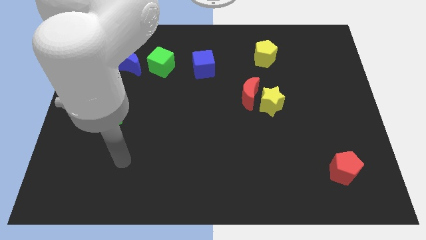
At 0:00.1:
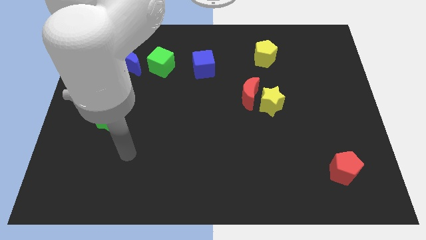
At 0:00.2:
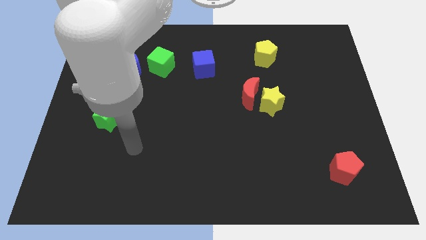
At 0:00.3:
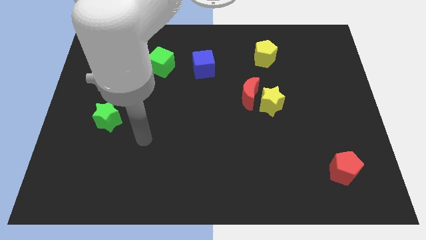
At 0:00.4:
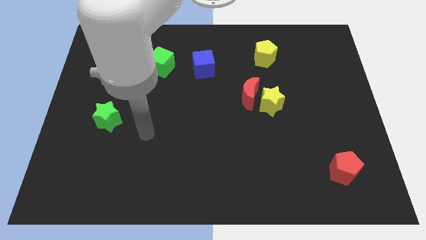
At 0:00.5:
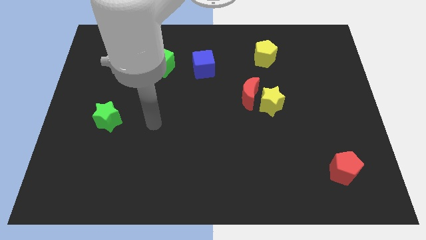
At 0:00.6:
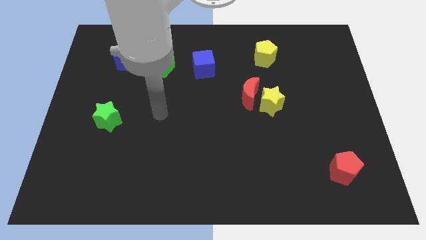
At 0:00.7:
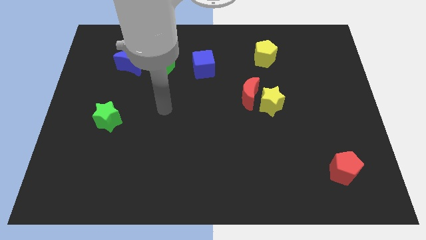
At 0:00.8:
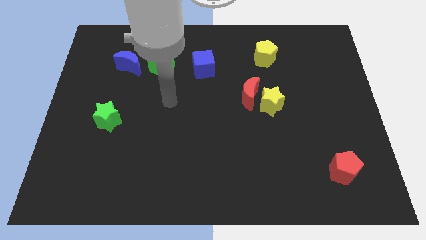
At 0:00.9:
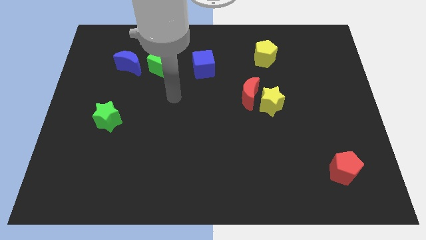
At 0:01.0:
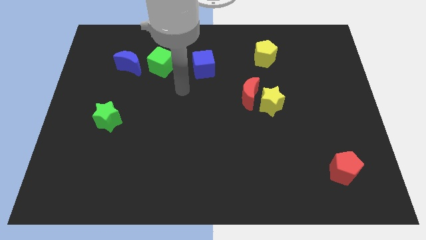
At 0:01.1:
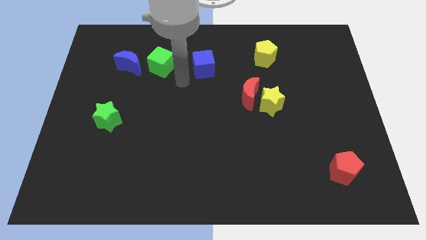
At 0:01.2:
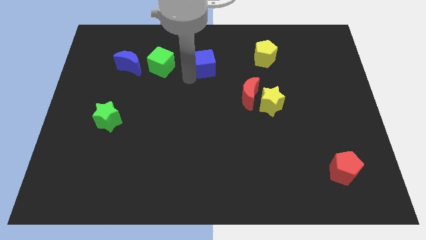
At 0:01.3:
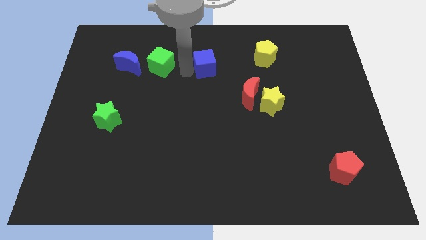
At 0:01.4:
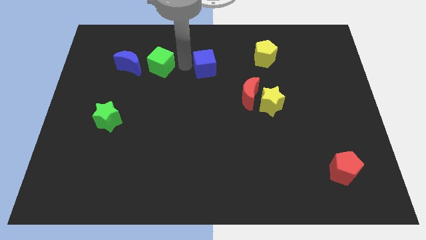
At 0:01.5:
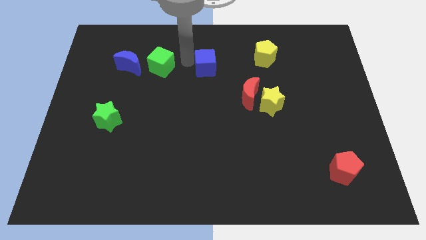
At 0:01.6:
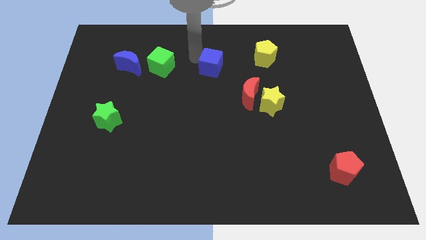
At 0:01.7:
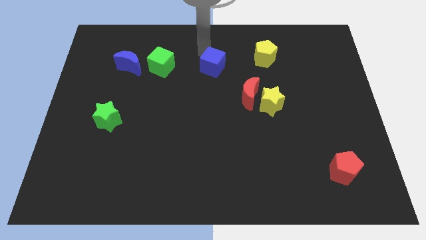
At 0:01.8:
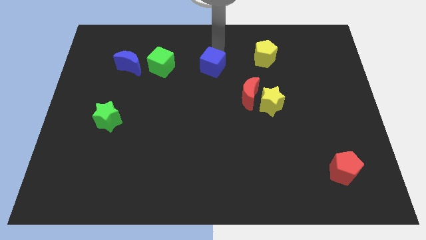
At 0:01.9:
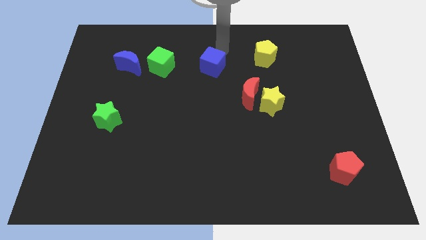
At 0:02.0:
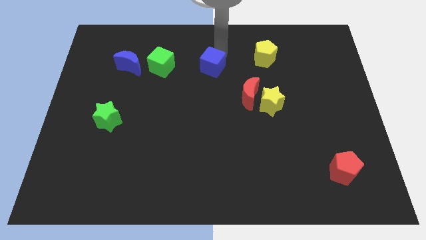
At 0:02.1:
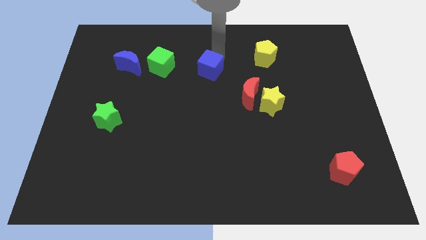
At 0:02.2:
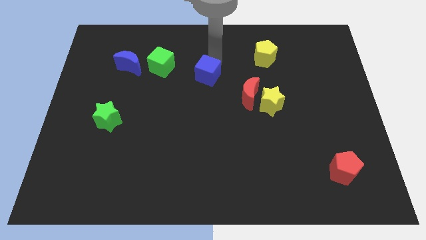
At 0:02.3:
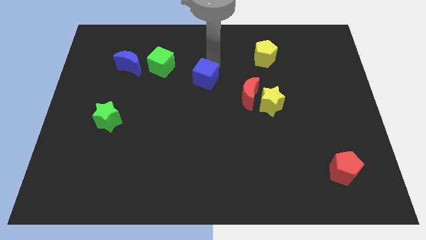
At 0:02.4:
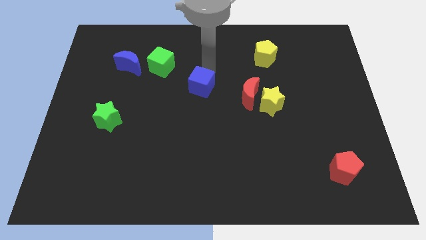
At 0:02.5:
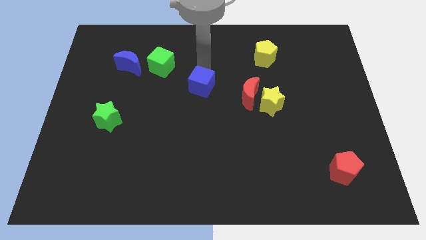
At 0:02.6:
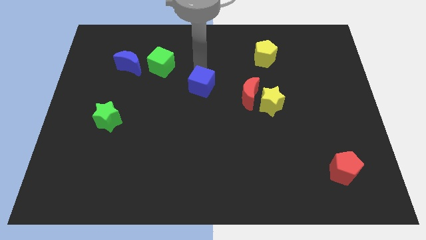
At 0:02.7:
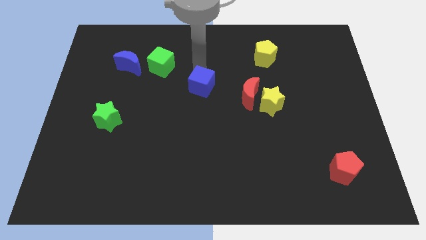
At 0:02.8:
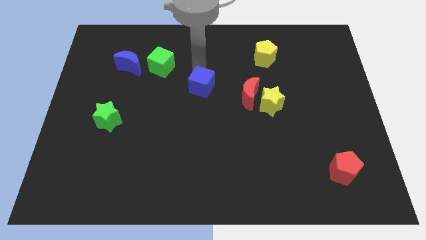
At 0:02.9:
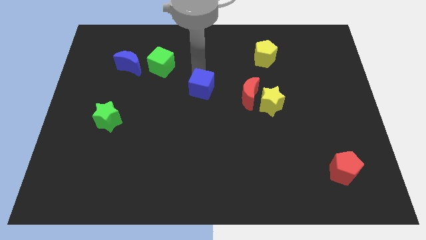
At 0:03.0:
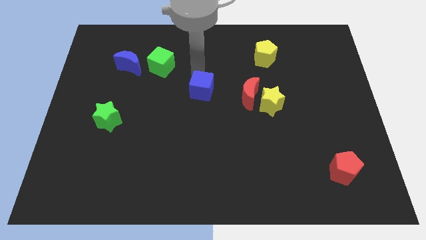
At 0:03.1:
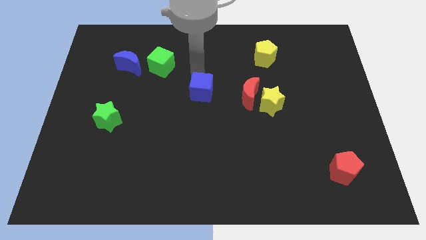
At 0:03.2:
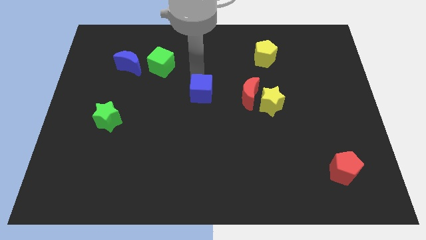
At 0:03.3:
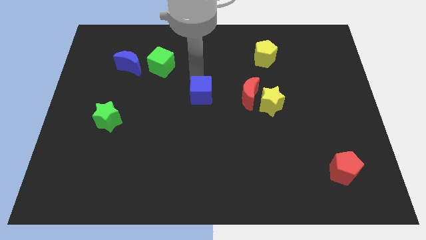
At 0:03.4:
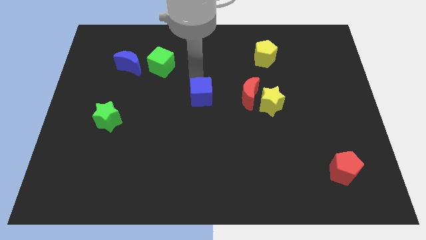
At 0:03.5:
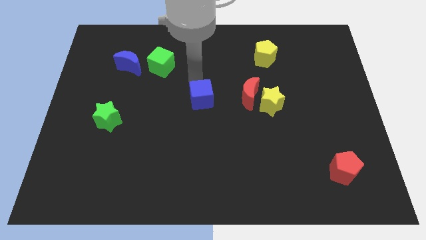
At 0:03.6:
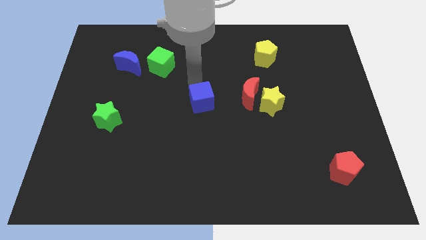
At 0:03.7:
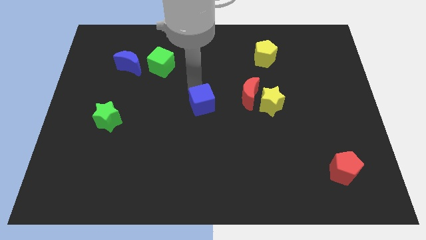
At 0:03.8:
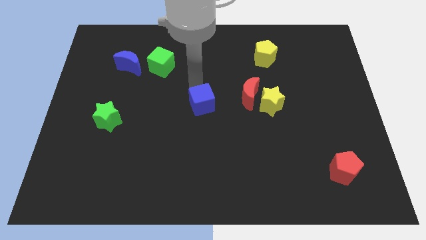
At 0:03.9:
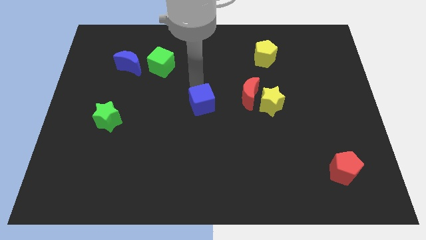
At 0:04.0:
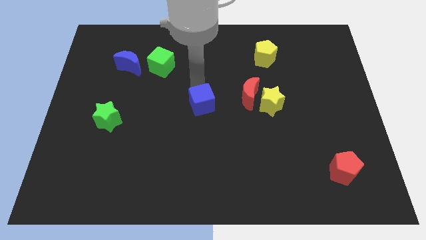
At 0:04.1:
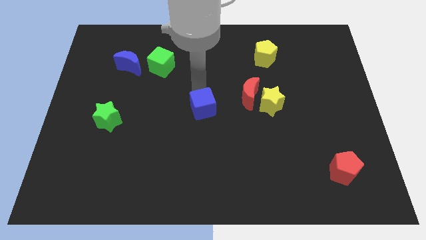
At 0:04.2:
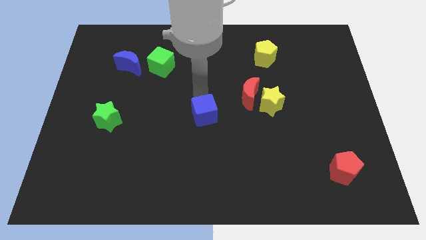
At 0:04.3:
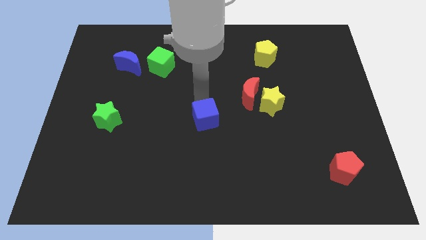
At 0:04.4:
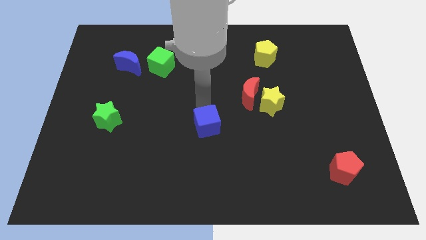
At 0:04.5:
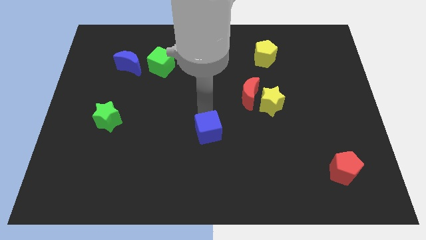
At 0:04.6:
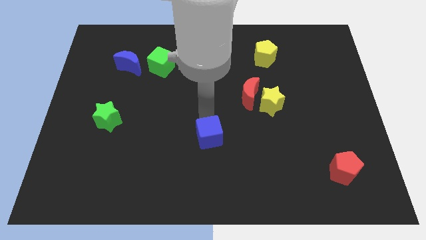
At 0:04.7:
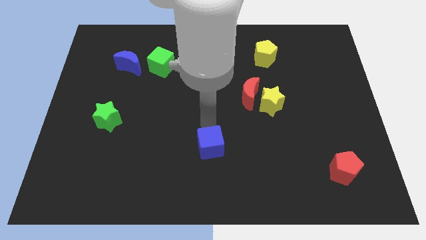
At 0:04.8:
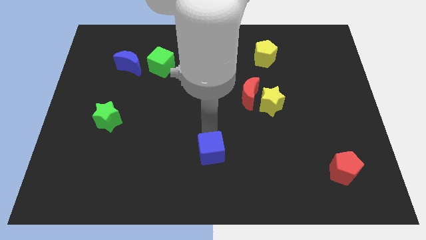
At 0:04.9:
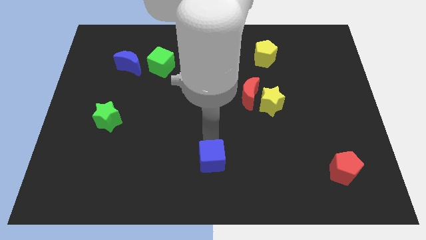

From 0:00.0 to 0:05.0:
push the blue cube to the bottom

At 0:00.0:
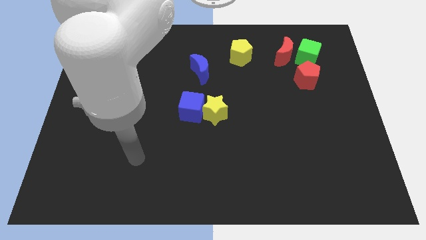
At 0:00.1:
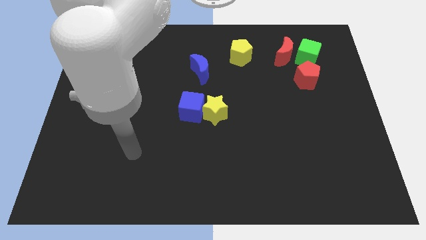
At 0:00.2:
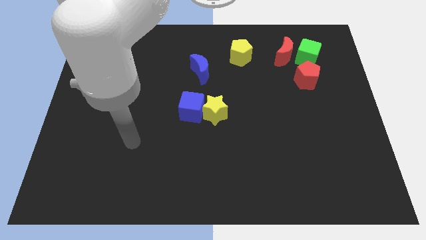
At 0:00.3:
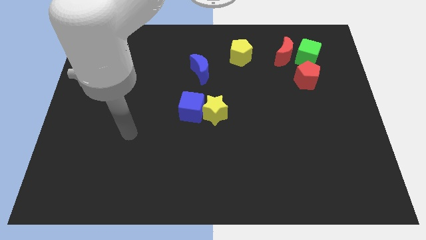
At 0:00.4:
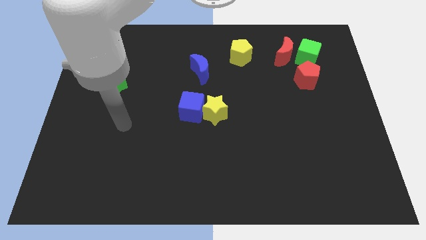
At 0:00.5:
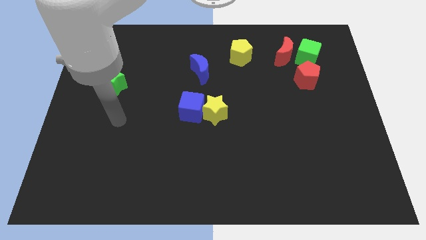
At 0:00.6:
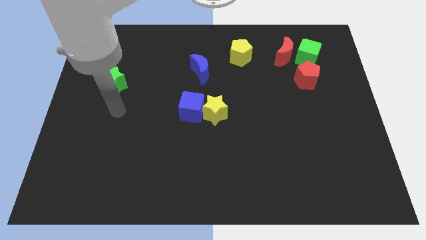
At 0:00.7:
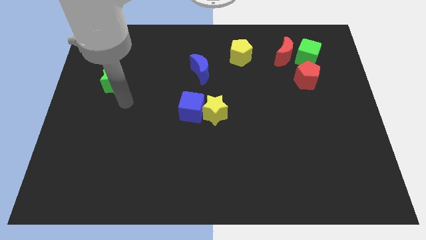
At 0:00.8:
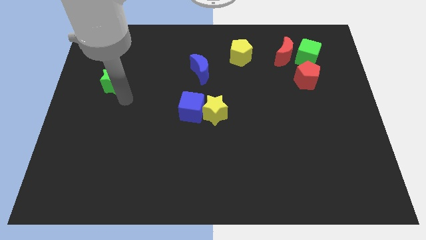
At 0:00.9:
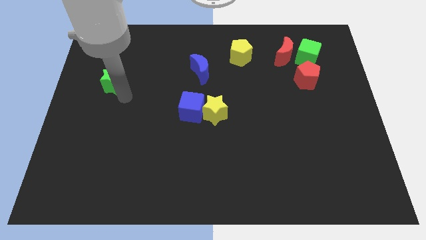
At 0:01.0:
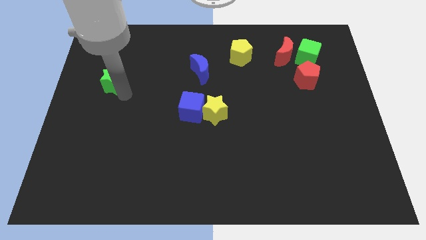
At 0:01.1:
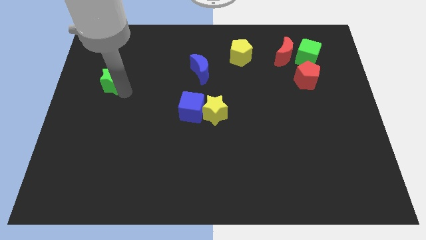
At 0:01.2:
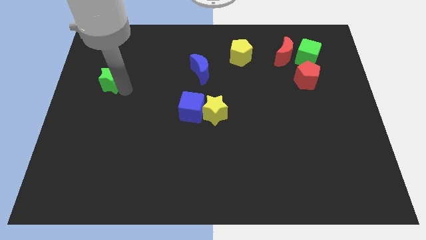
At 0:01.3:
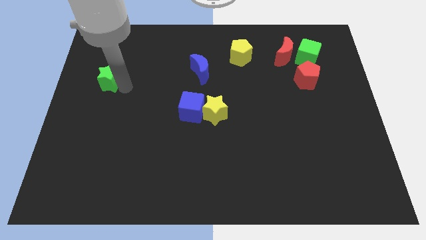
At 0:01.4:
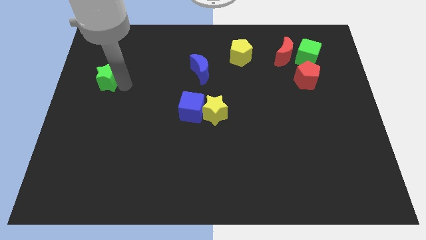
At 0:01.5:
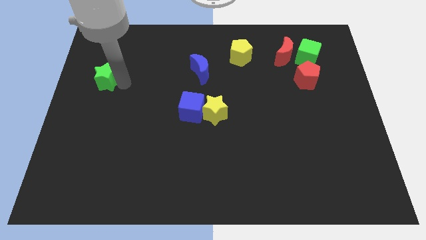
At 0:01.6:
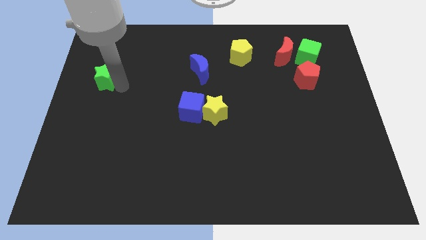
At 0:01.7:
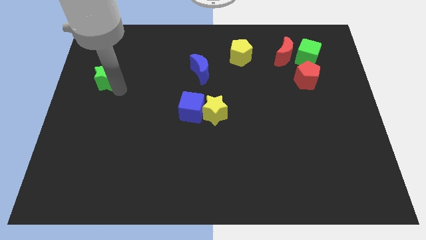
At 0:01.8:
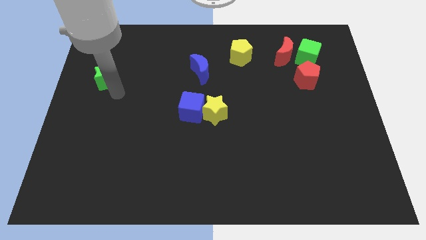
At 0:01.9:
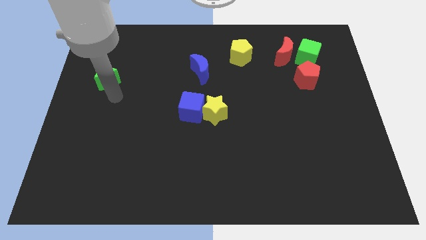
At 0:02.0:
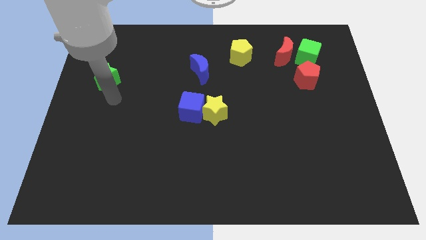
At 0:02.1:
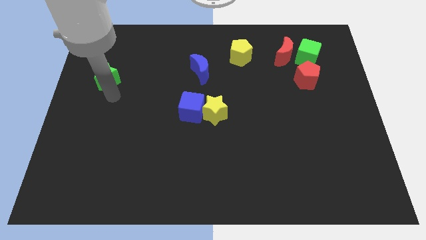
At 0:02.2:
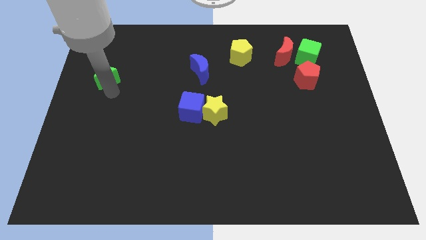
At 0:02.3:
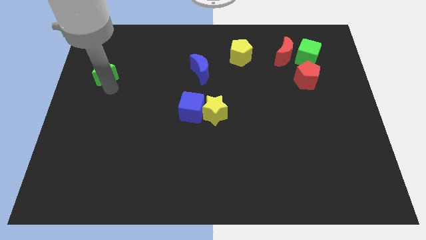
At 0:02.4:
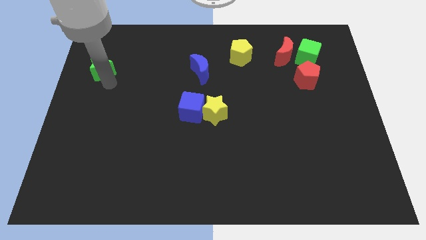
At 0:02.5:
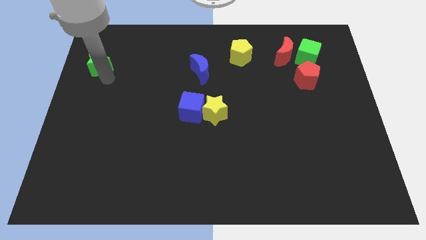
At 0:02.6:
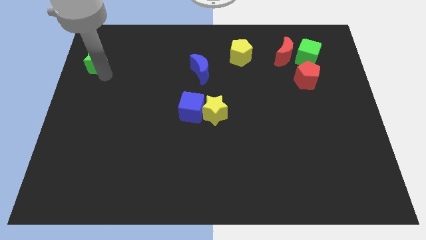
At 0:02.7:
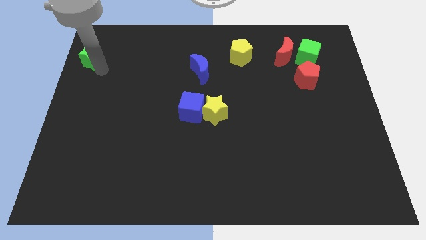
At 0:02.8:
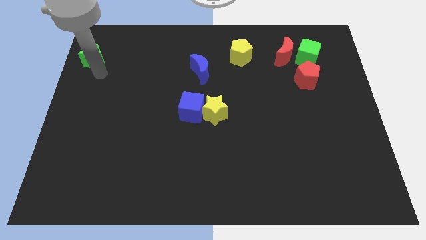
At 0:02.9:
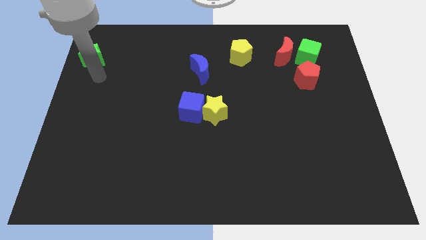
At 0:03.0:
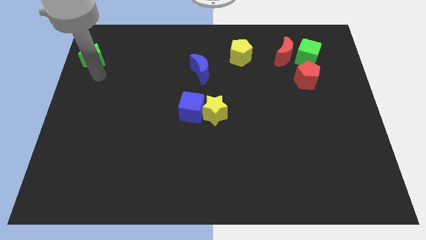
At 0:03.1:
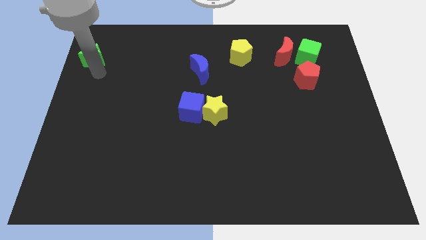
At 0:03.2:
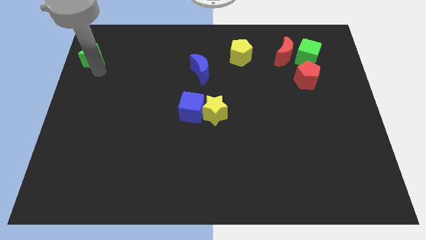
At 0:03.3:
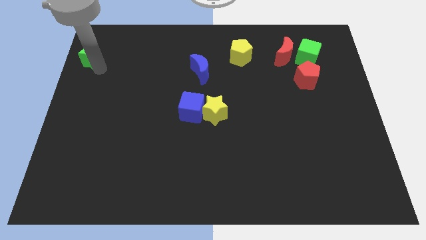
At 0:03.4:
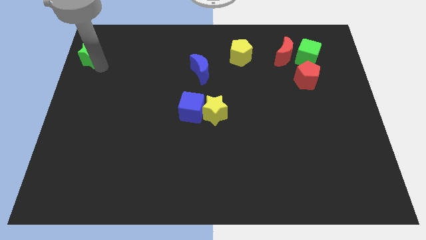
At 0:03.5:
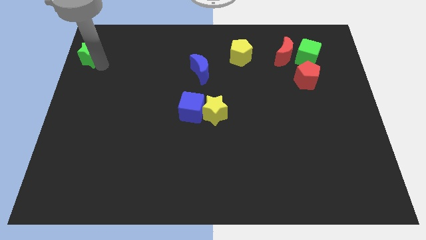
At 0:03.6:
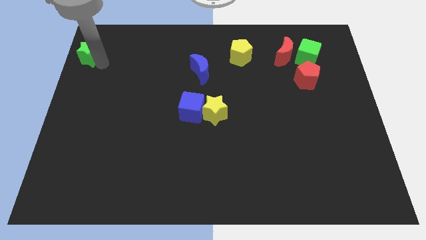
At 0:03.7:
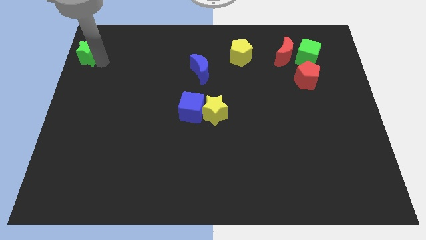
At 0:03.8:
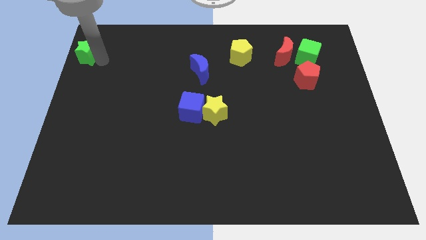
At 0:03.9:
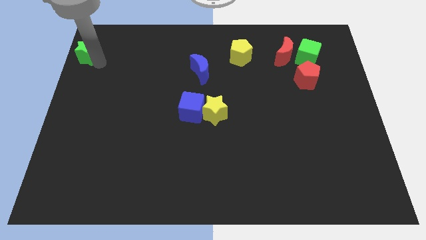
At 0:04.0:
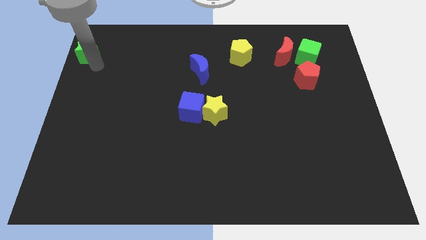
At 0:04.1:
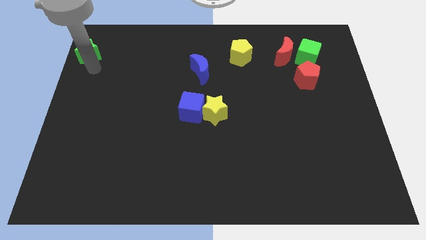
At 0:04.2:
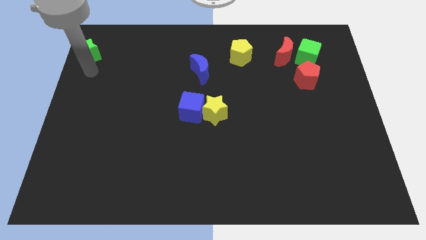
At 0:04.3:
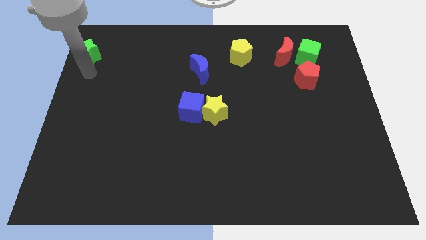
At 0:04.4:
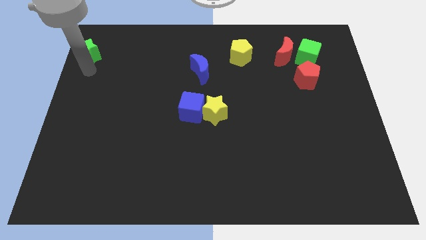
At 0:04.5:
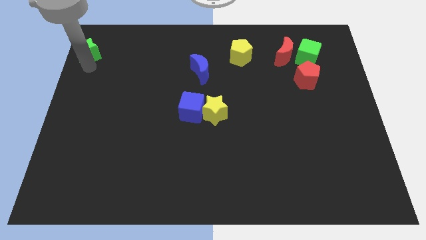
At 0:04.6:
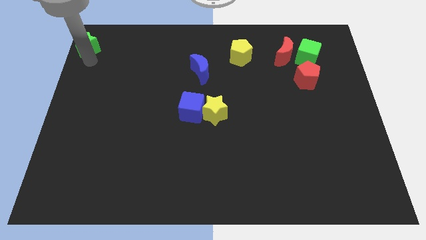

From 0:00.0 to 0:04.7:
put the green star to the top left corner
